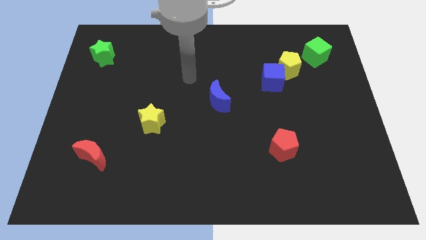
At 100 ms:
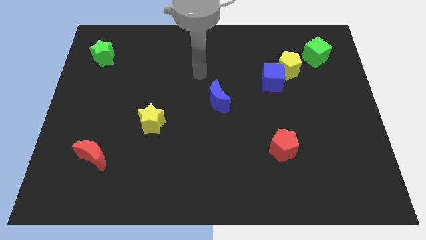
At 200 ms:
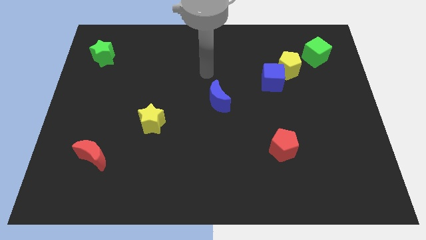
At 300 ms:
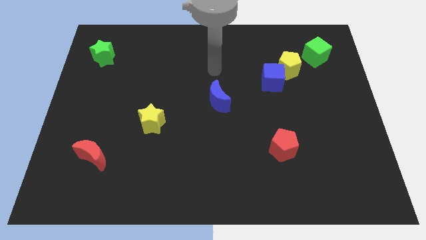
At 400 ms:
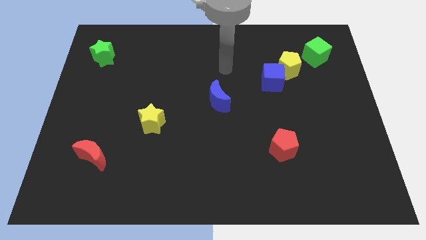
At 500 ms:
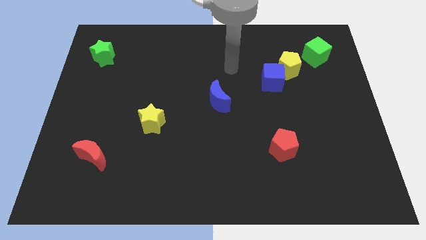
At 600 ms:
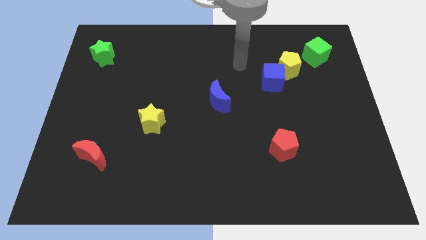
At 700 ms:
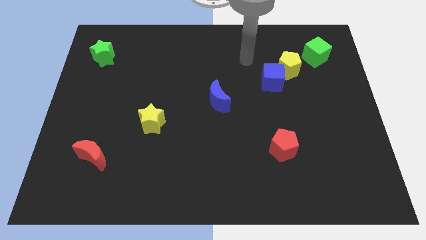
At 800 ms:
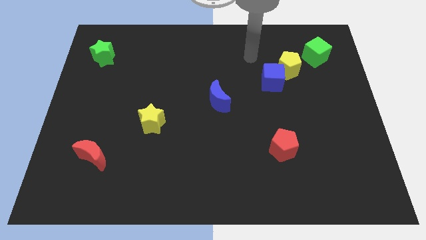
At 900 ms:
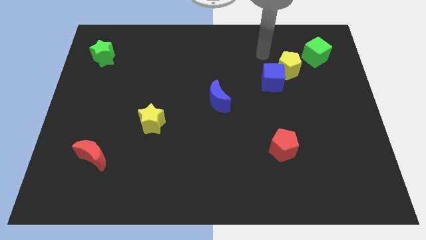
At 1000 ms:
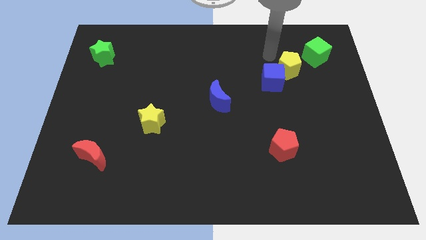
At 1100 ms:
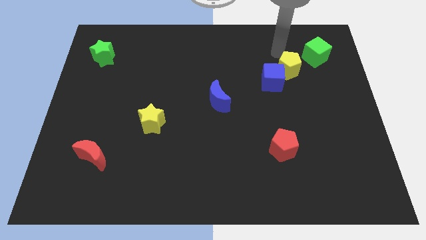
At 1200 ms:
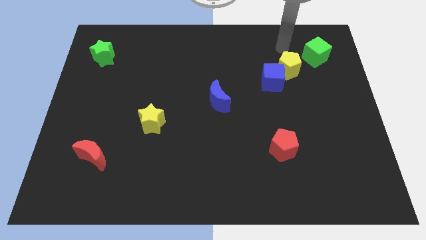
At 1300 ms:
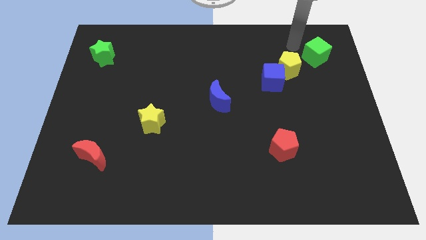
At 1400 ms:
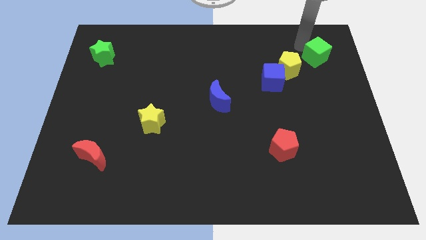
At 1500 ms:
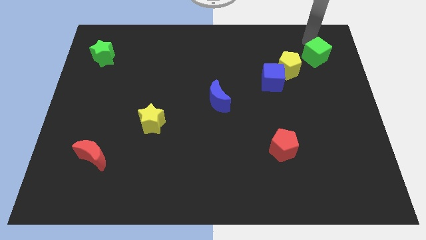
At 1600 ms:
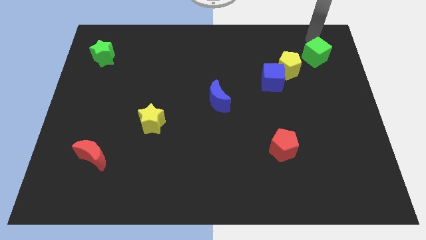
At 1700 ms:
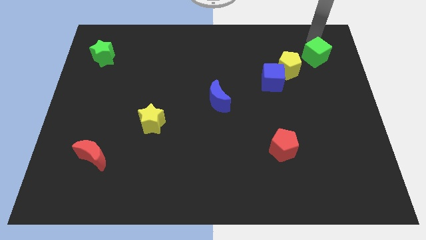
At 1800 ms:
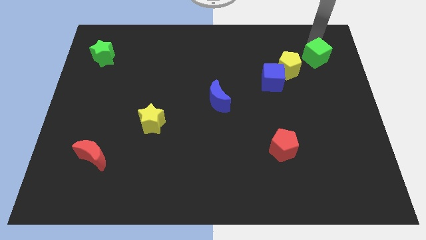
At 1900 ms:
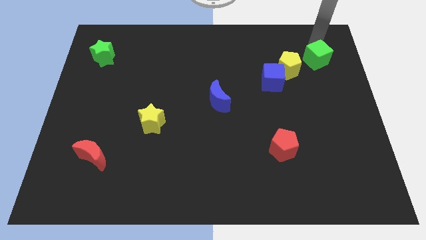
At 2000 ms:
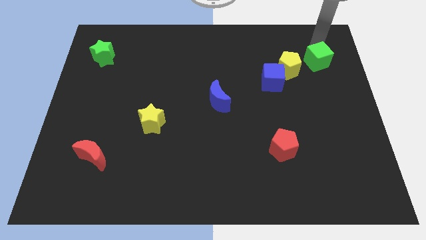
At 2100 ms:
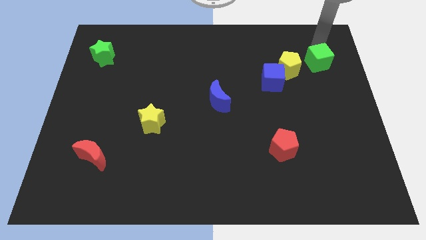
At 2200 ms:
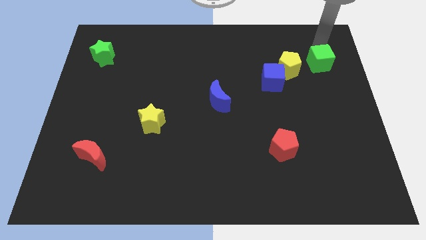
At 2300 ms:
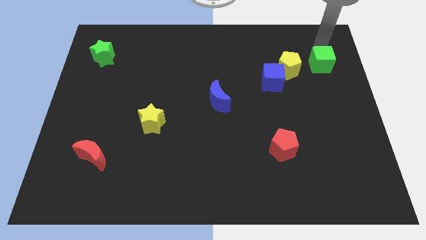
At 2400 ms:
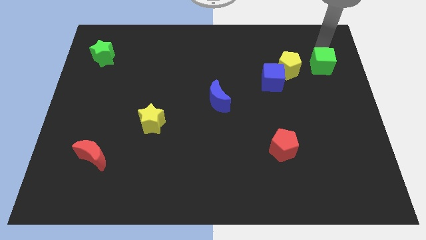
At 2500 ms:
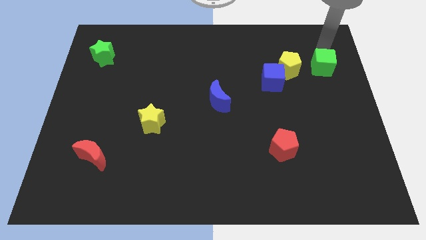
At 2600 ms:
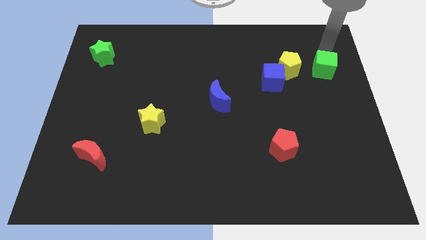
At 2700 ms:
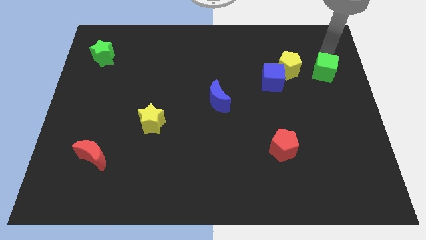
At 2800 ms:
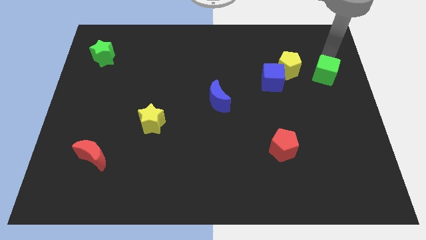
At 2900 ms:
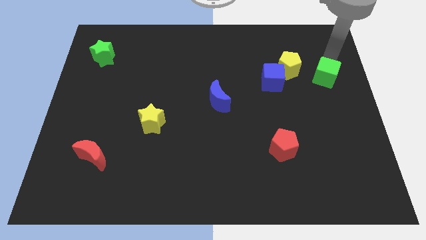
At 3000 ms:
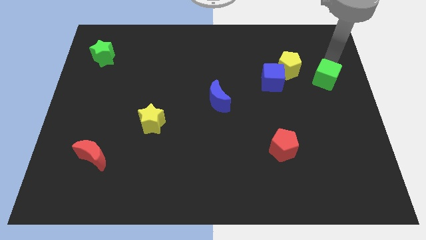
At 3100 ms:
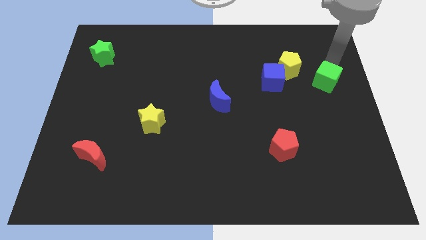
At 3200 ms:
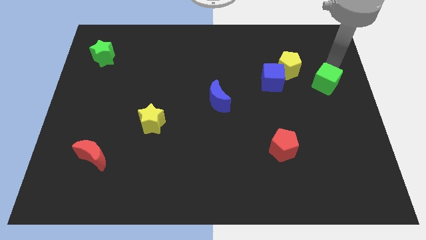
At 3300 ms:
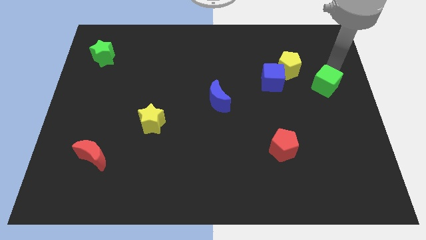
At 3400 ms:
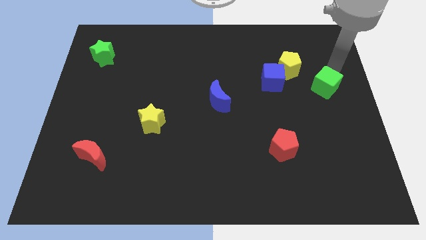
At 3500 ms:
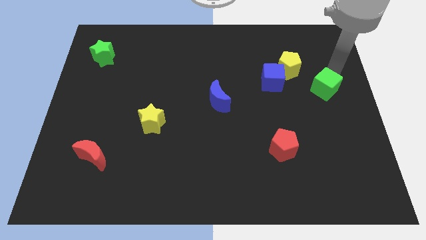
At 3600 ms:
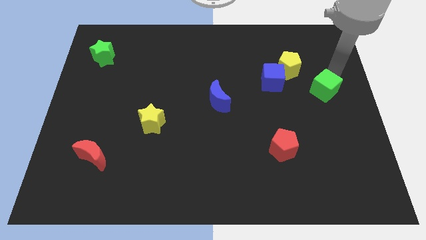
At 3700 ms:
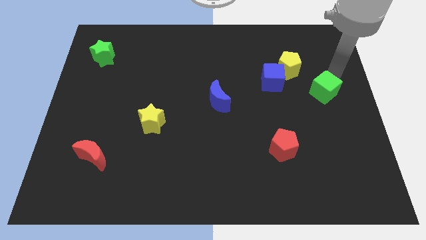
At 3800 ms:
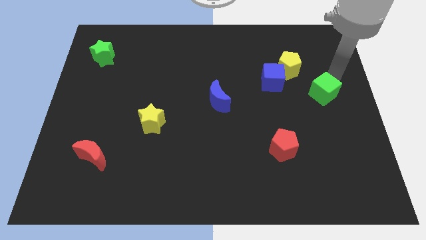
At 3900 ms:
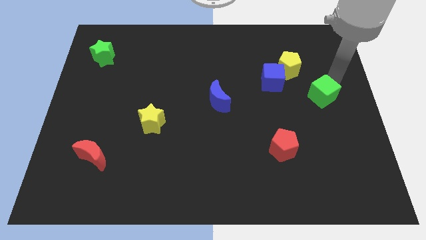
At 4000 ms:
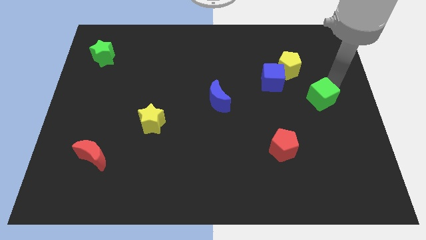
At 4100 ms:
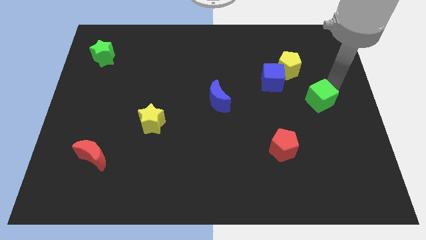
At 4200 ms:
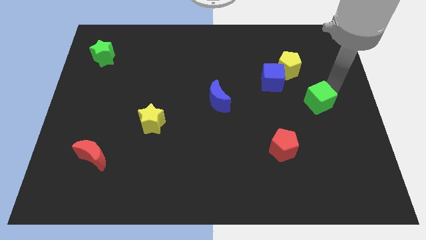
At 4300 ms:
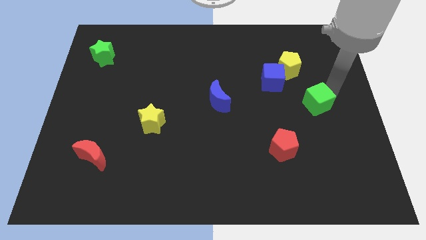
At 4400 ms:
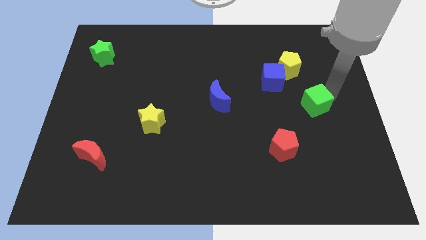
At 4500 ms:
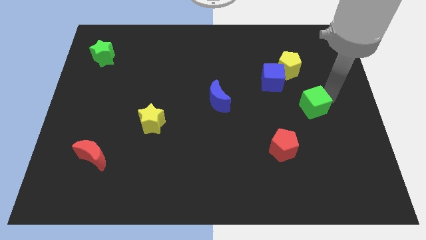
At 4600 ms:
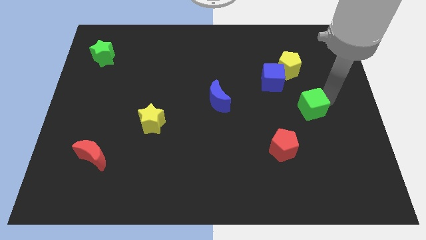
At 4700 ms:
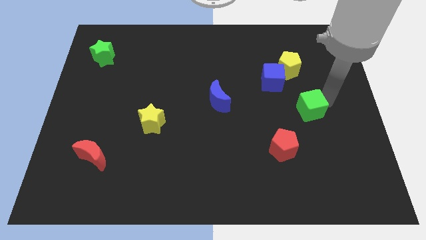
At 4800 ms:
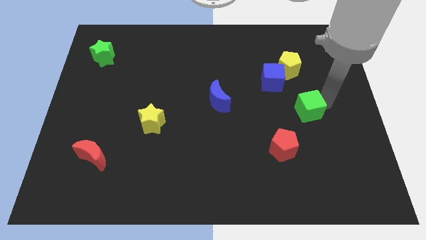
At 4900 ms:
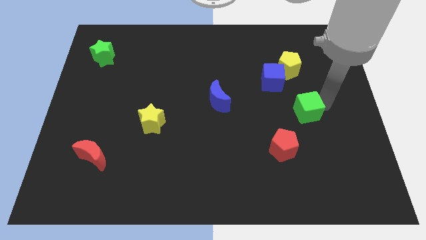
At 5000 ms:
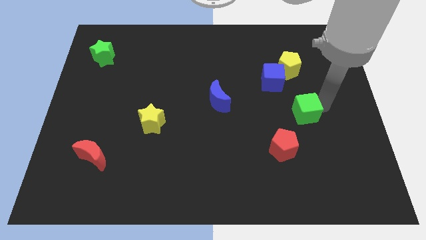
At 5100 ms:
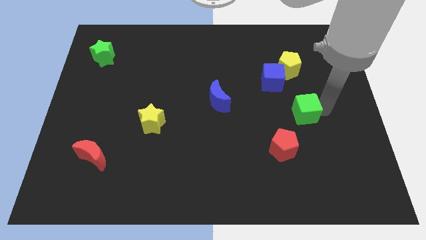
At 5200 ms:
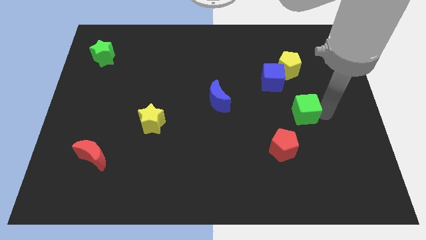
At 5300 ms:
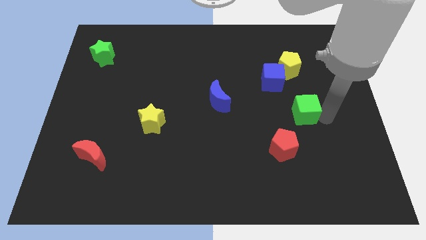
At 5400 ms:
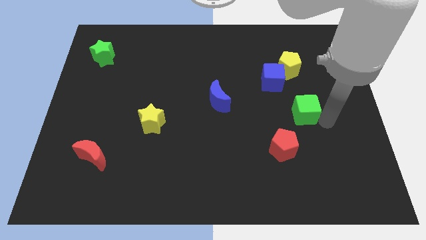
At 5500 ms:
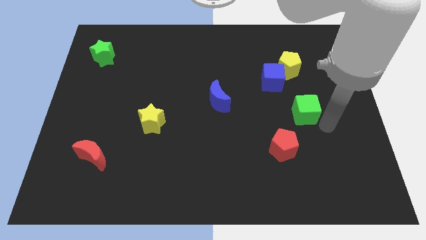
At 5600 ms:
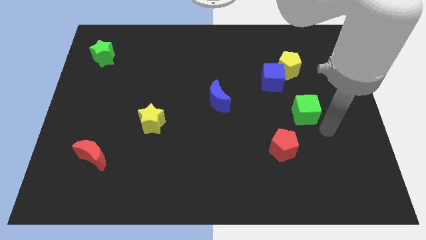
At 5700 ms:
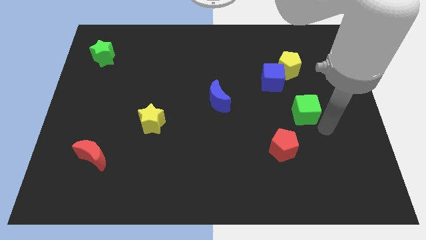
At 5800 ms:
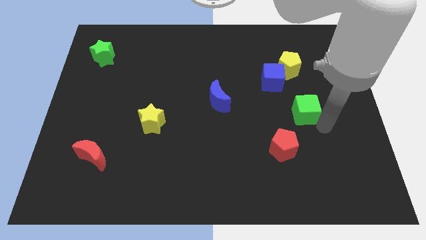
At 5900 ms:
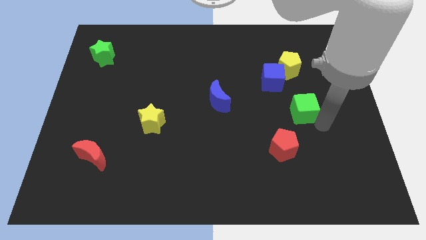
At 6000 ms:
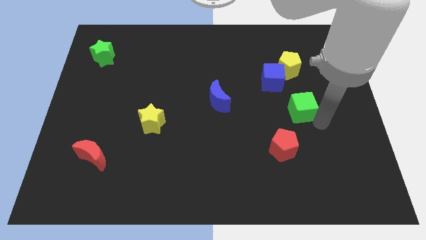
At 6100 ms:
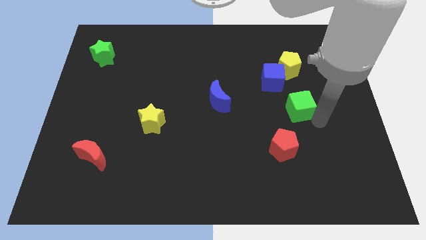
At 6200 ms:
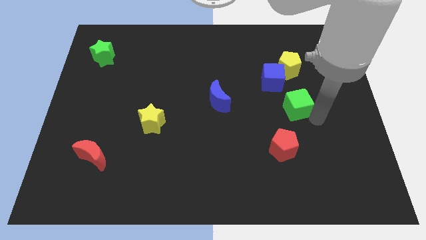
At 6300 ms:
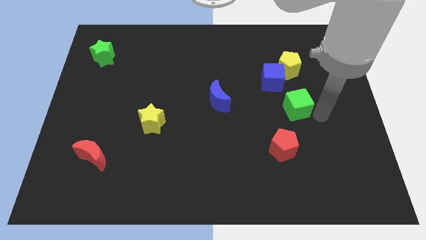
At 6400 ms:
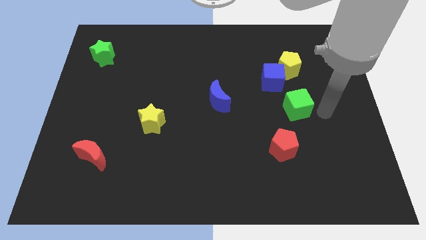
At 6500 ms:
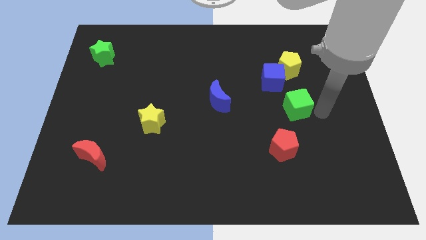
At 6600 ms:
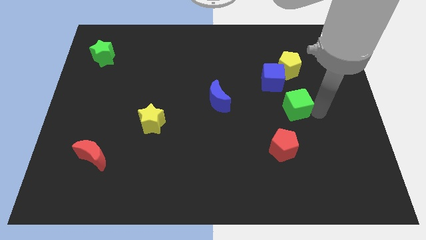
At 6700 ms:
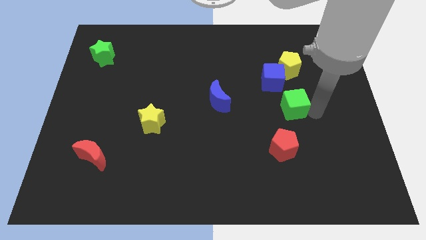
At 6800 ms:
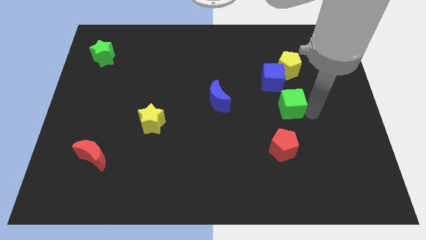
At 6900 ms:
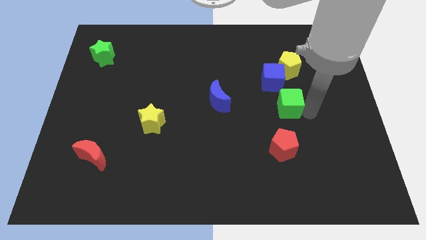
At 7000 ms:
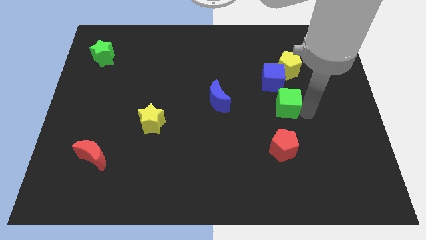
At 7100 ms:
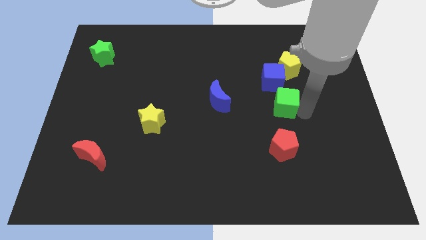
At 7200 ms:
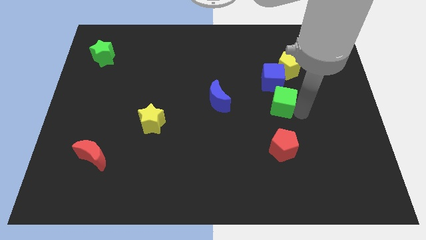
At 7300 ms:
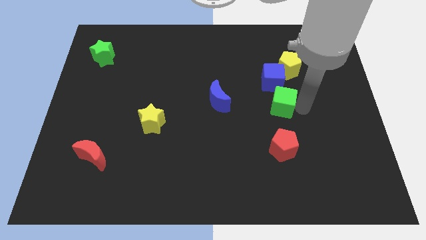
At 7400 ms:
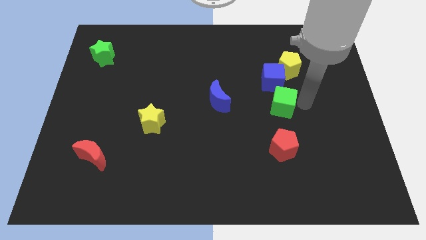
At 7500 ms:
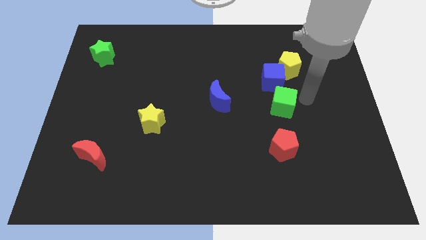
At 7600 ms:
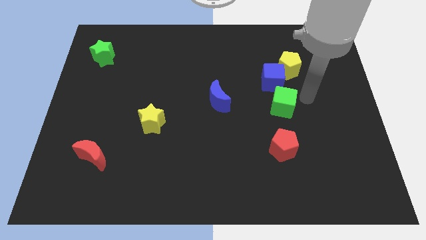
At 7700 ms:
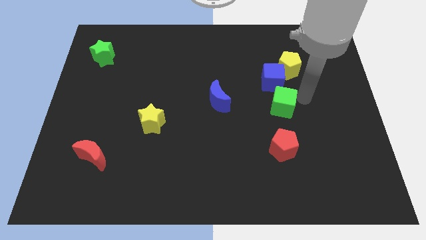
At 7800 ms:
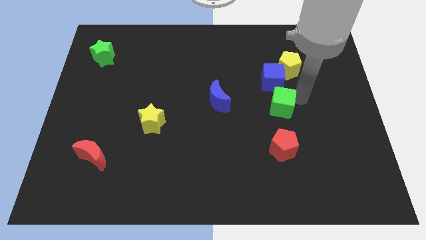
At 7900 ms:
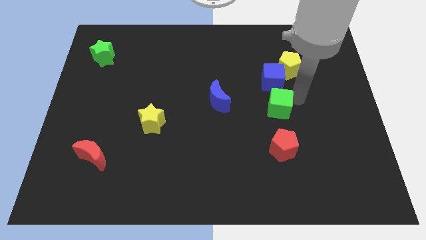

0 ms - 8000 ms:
slide the green cube downwards and to the left diagonally

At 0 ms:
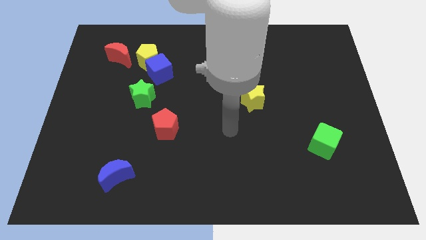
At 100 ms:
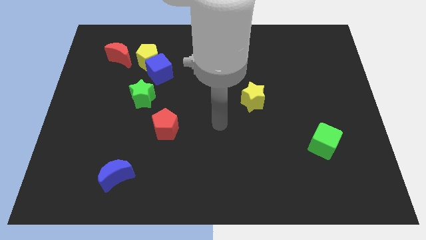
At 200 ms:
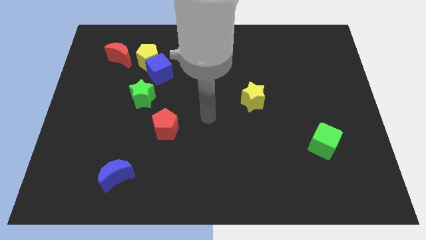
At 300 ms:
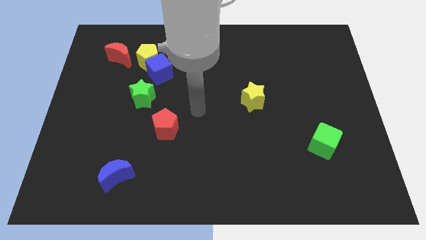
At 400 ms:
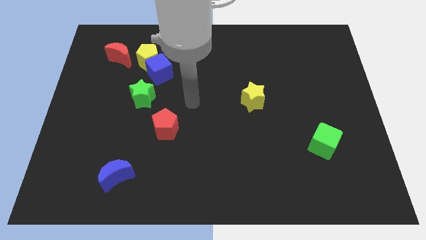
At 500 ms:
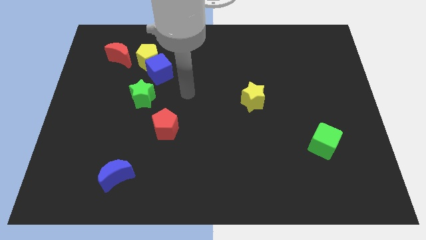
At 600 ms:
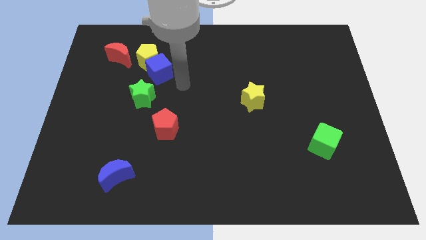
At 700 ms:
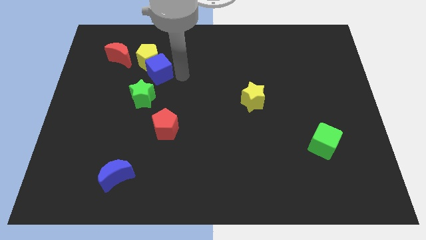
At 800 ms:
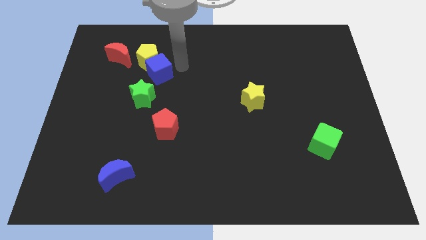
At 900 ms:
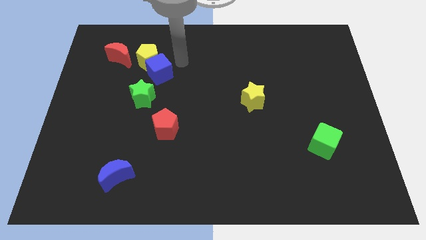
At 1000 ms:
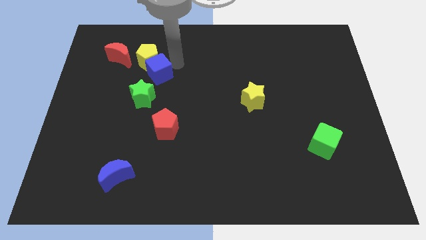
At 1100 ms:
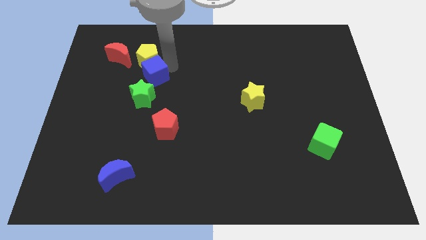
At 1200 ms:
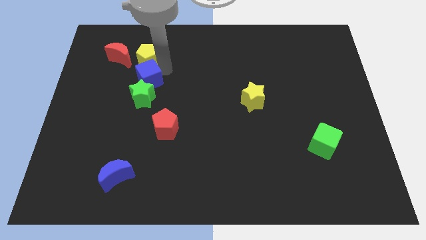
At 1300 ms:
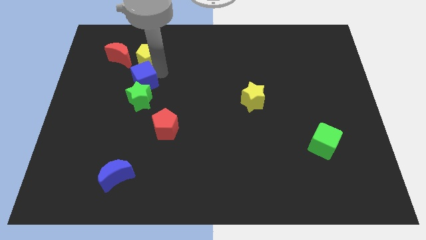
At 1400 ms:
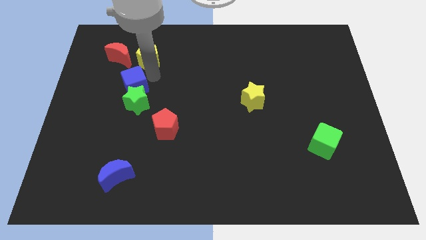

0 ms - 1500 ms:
slide the blue cube downwards and to the left a bit
